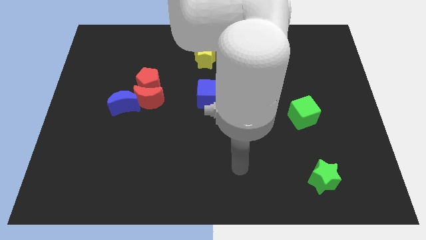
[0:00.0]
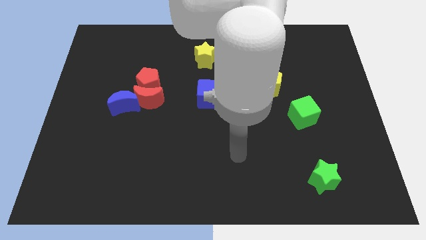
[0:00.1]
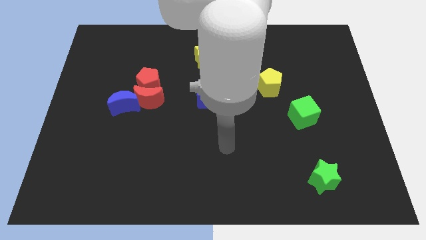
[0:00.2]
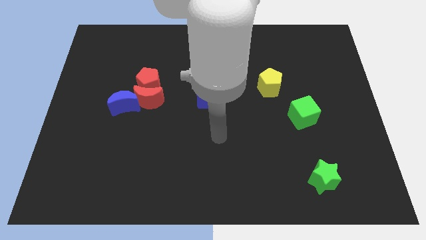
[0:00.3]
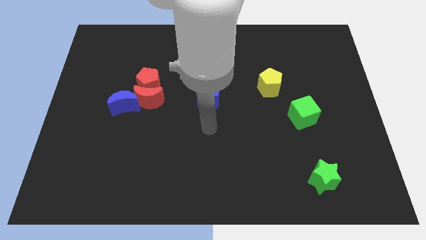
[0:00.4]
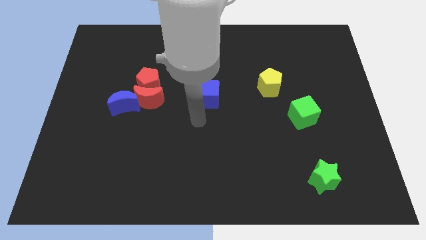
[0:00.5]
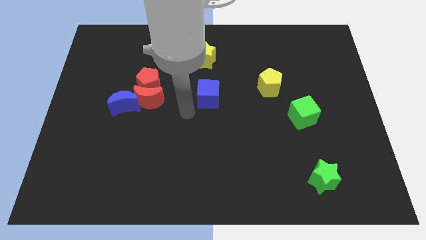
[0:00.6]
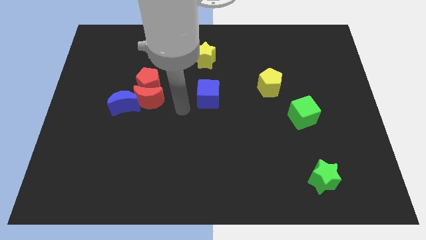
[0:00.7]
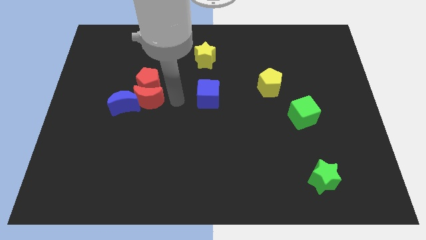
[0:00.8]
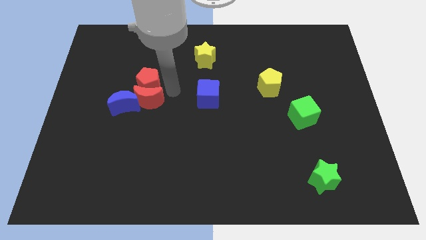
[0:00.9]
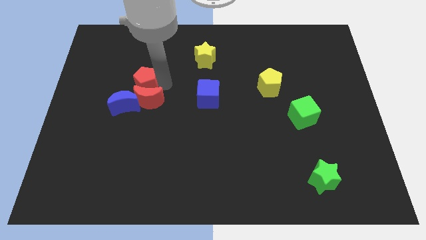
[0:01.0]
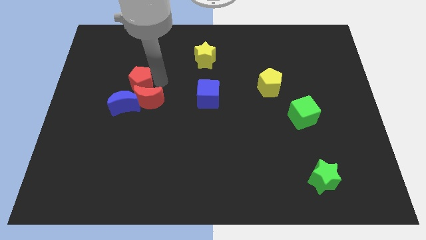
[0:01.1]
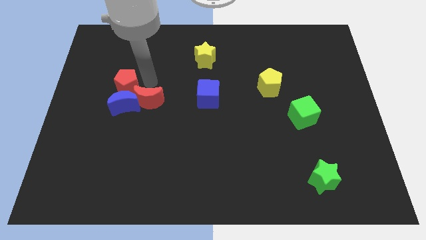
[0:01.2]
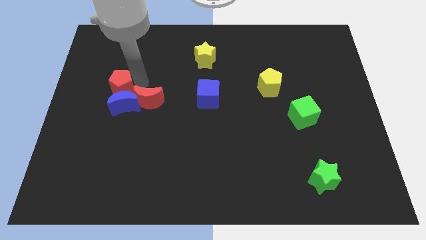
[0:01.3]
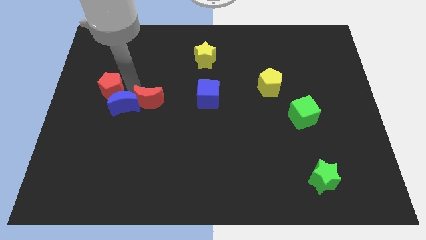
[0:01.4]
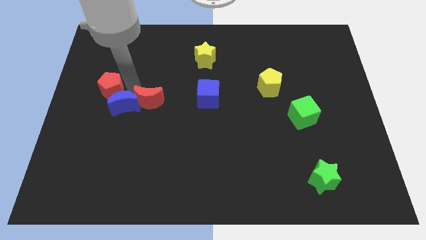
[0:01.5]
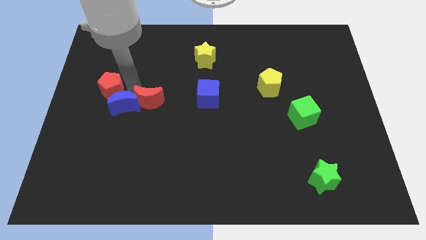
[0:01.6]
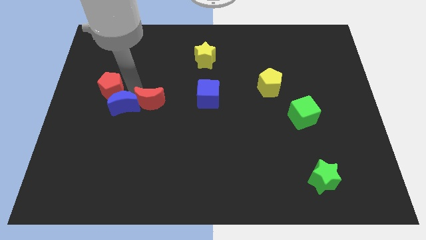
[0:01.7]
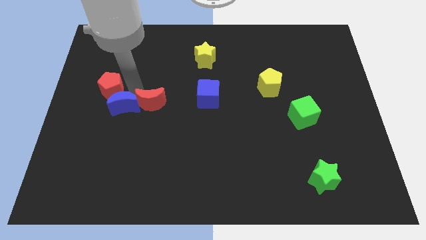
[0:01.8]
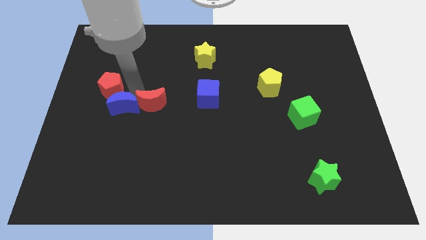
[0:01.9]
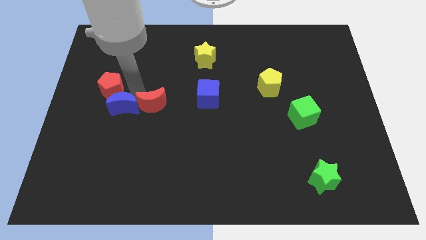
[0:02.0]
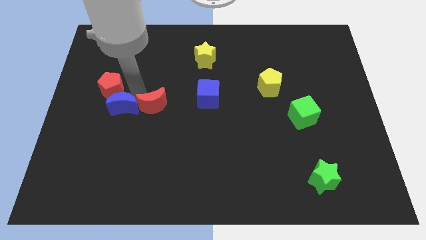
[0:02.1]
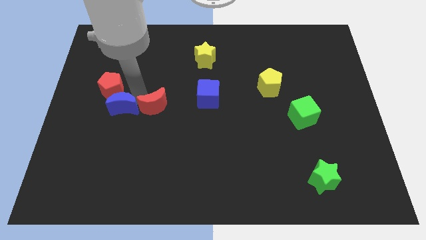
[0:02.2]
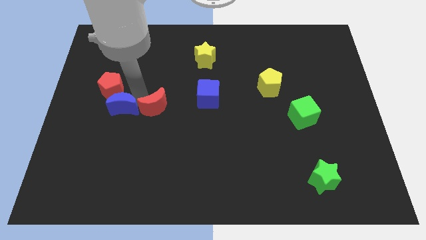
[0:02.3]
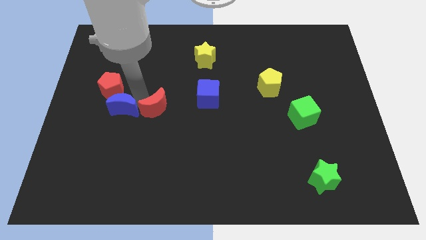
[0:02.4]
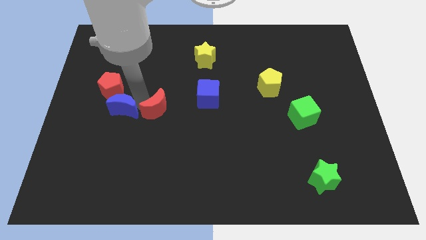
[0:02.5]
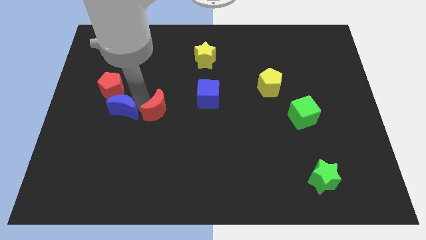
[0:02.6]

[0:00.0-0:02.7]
pull the red moon apart from the red pentagon and blue moon

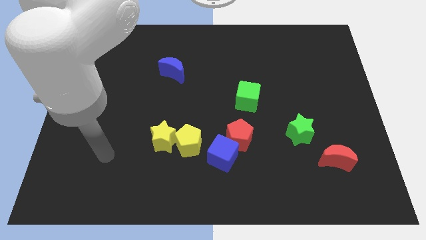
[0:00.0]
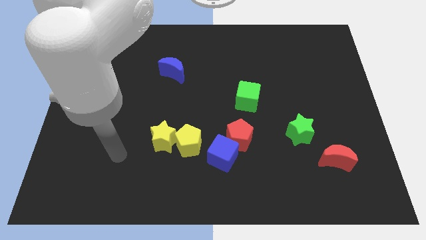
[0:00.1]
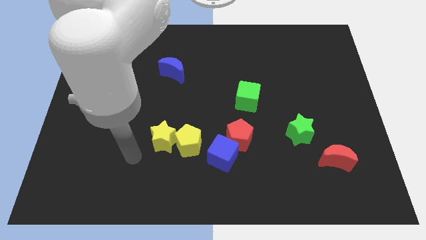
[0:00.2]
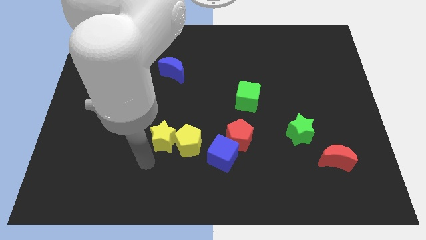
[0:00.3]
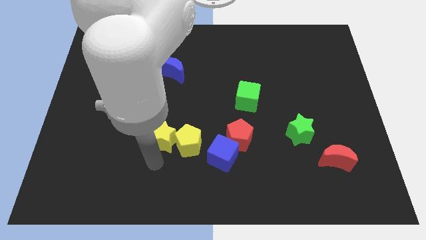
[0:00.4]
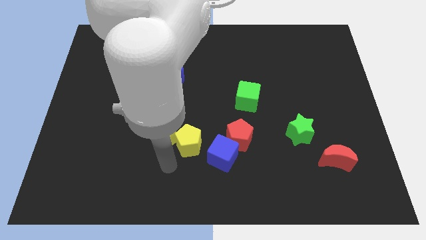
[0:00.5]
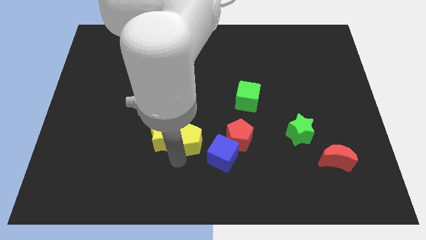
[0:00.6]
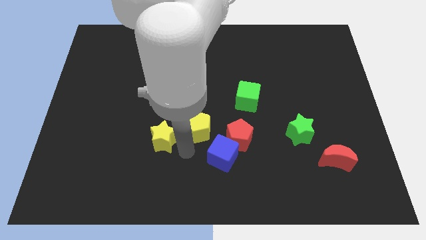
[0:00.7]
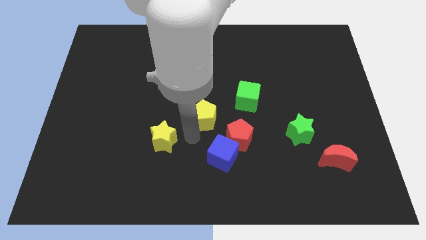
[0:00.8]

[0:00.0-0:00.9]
separate the yellow star from the yellow pentagon

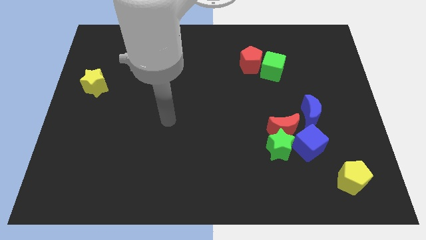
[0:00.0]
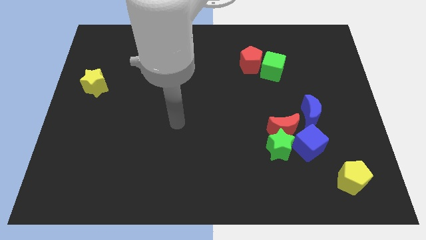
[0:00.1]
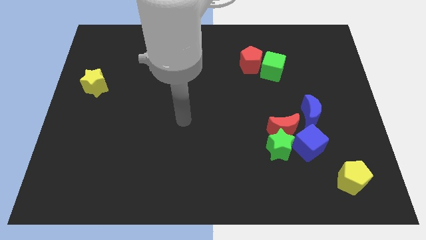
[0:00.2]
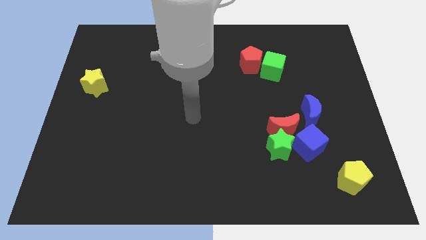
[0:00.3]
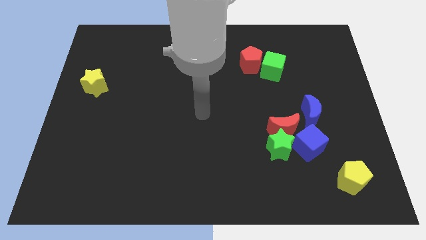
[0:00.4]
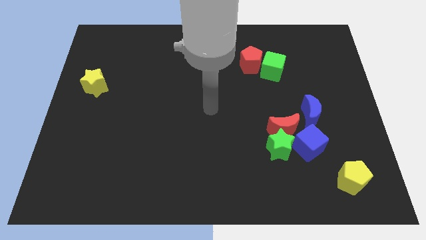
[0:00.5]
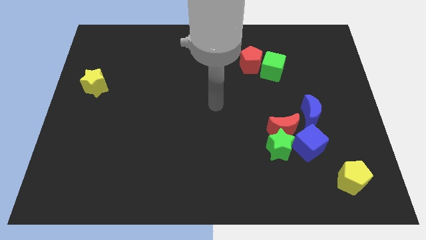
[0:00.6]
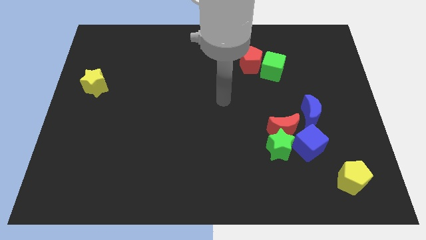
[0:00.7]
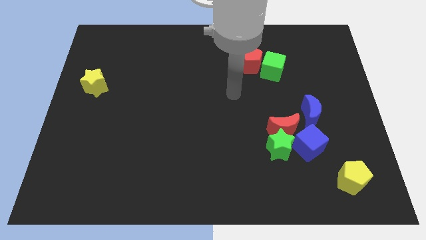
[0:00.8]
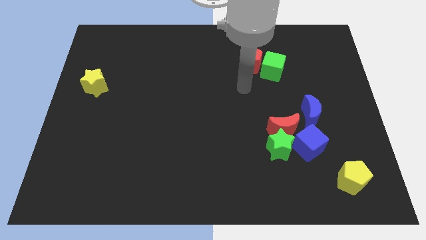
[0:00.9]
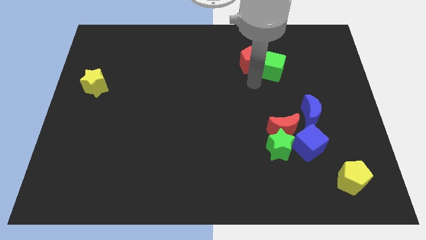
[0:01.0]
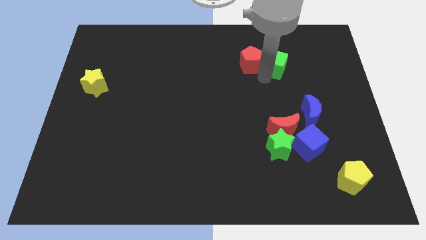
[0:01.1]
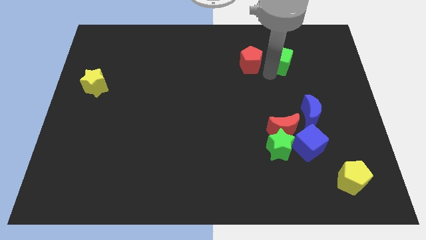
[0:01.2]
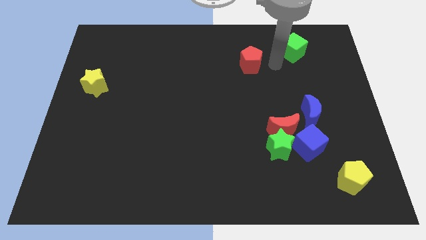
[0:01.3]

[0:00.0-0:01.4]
move the red pentagon away from the green cube

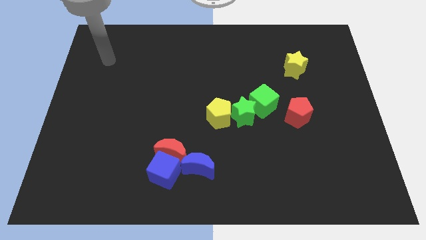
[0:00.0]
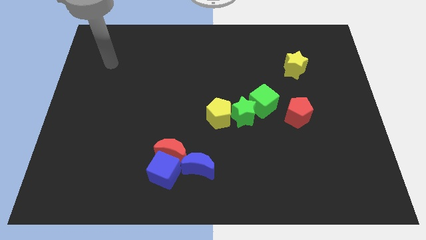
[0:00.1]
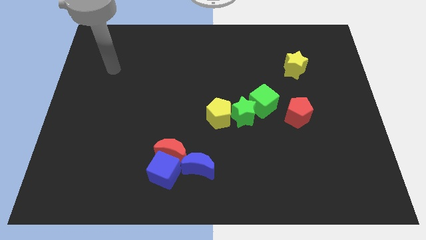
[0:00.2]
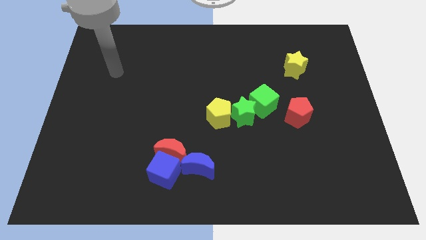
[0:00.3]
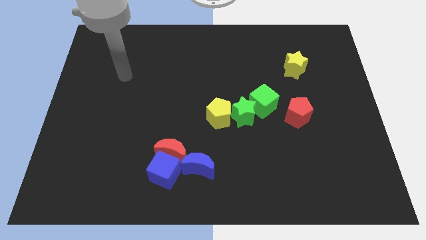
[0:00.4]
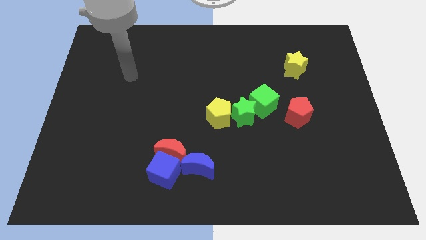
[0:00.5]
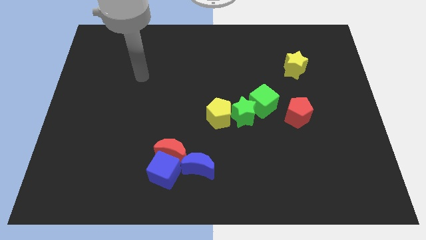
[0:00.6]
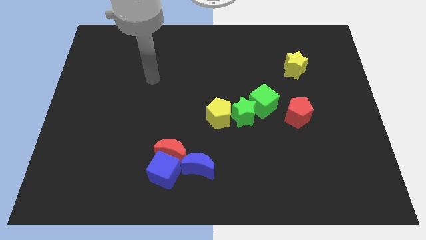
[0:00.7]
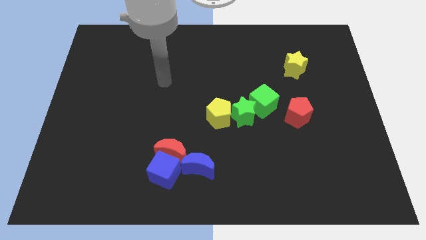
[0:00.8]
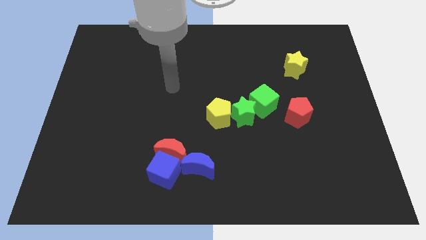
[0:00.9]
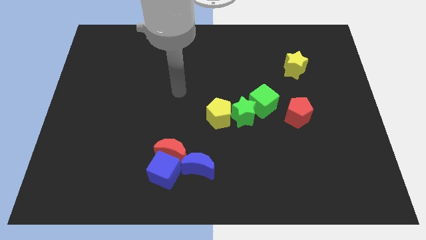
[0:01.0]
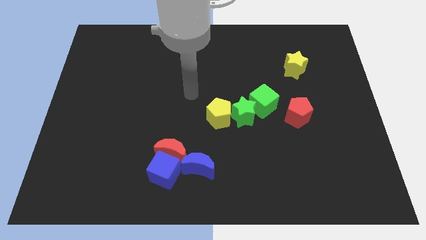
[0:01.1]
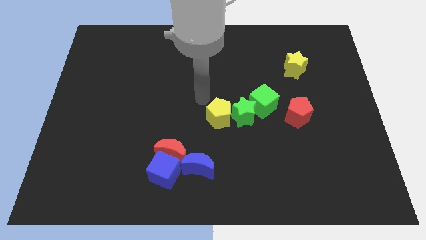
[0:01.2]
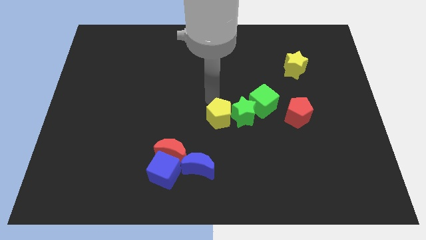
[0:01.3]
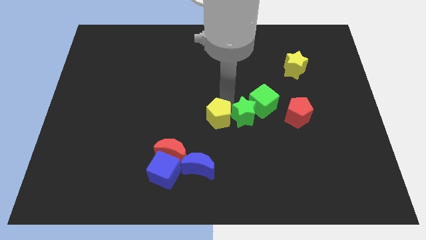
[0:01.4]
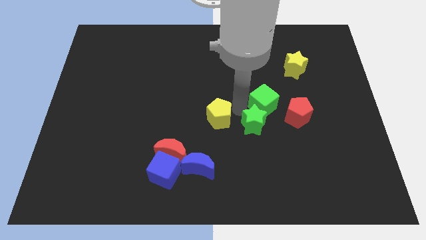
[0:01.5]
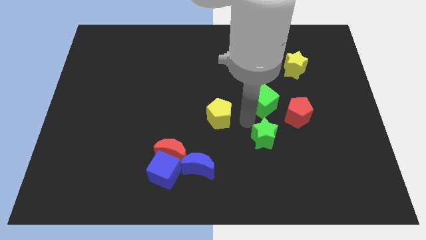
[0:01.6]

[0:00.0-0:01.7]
separate the yellow pentagon from the green star

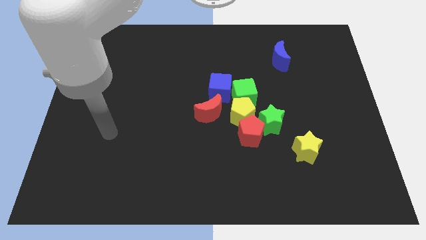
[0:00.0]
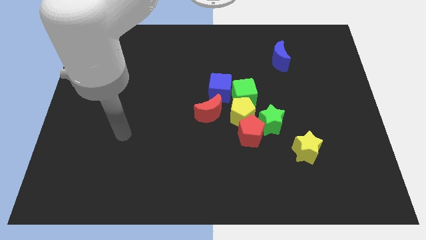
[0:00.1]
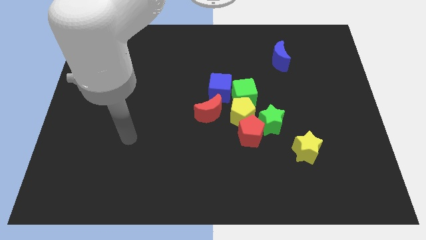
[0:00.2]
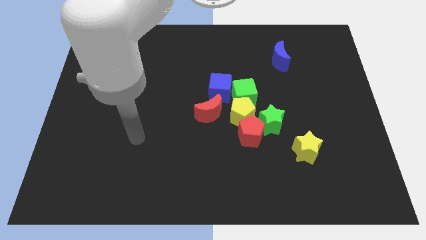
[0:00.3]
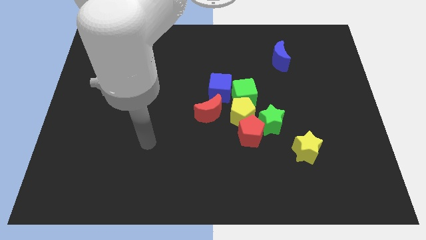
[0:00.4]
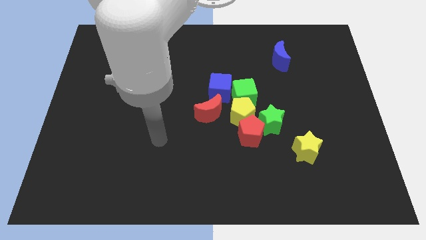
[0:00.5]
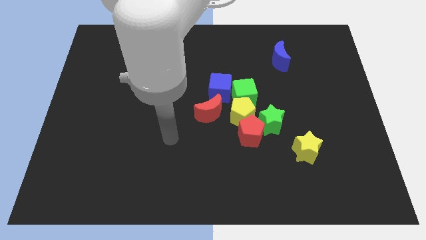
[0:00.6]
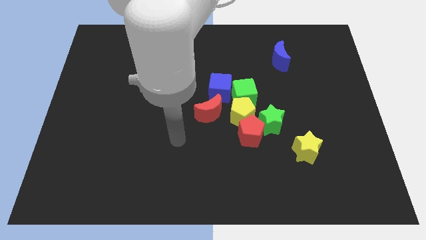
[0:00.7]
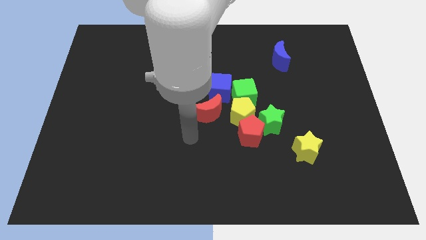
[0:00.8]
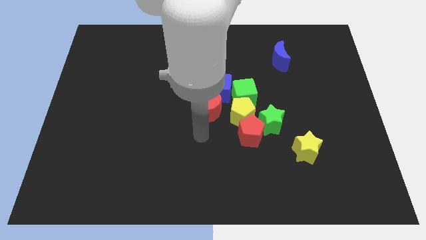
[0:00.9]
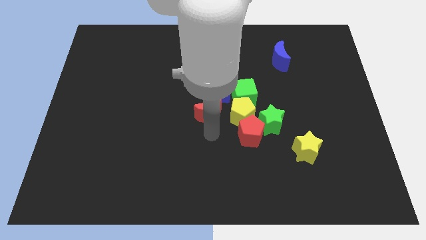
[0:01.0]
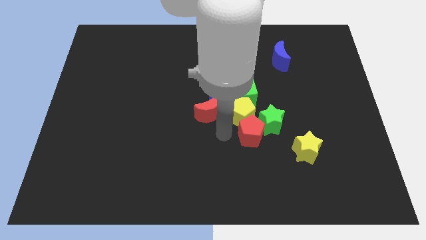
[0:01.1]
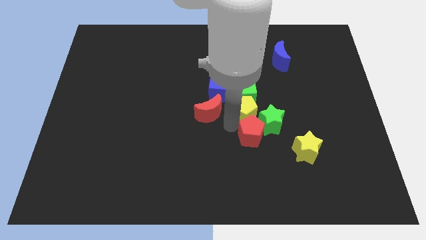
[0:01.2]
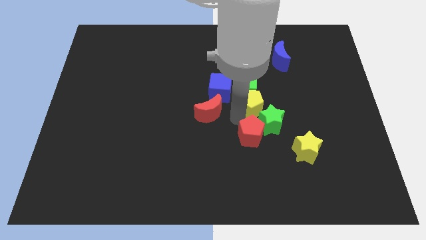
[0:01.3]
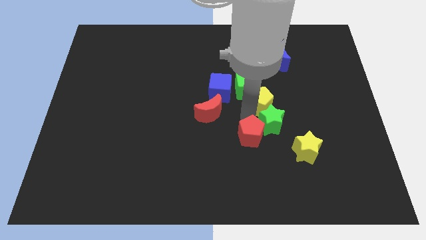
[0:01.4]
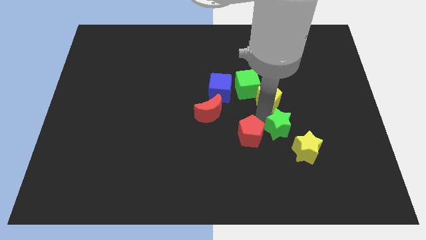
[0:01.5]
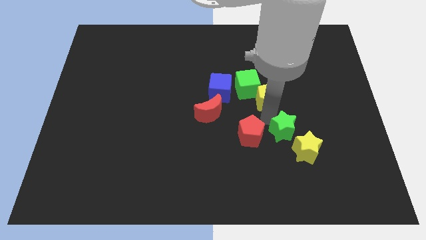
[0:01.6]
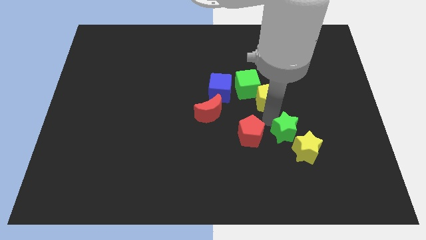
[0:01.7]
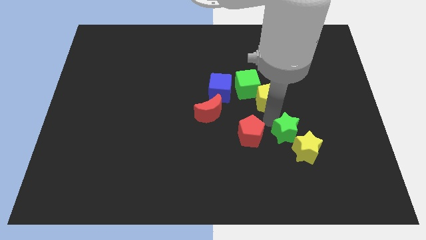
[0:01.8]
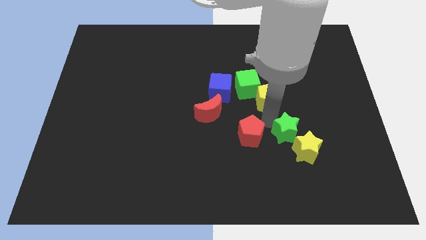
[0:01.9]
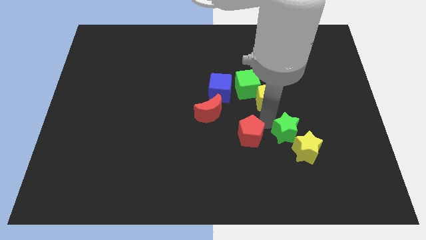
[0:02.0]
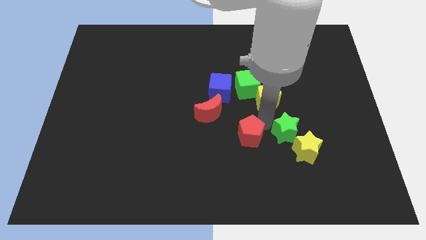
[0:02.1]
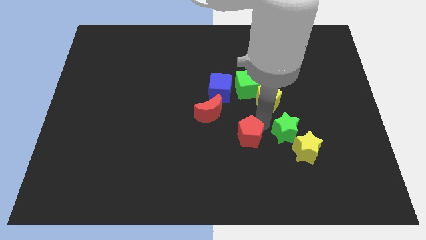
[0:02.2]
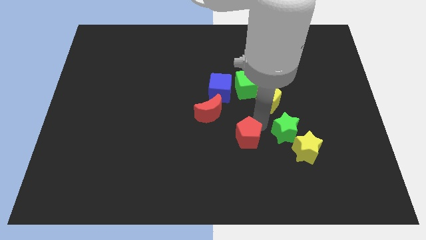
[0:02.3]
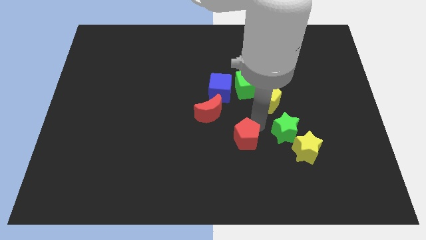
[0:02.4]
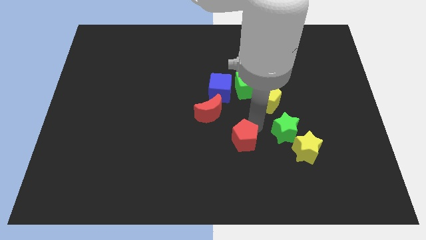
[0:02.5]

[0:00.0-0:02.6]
separate the red pentagon from the yellow pentagon and green star
